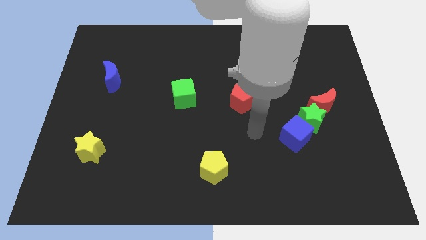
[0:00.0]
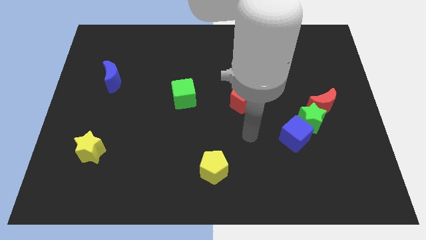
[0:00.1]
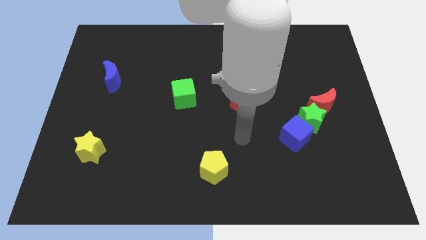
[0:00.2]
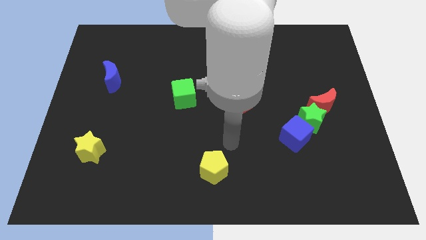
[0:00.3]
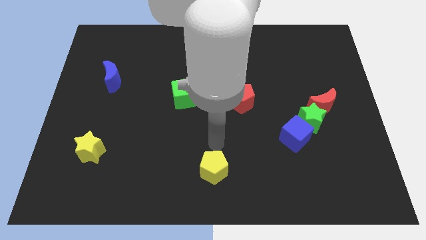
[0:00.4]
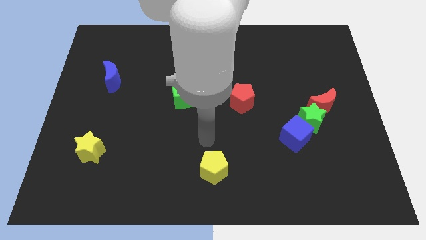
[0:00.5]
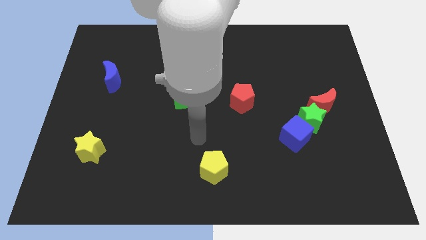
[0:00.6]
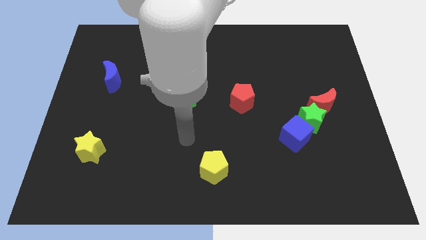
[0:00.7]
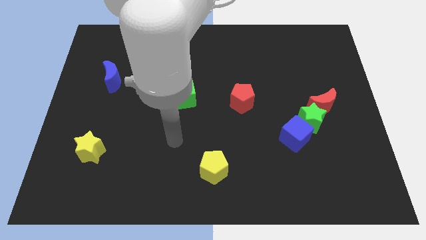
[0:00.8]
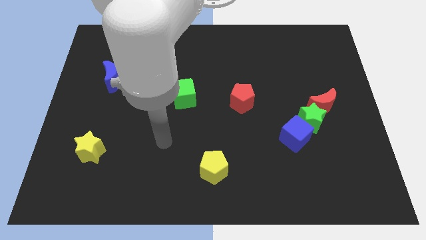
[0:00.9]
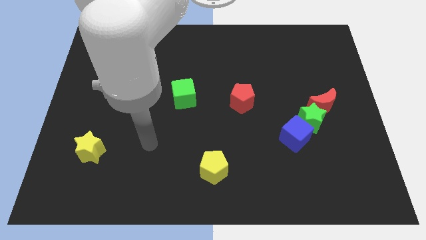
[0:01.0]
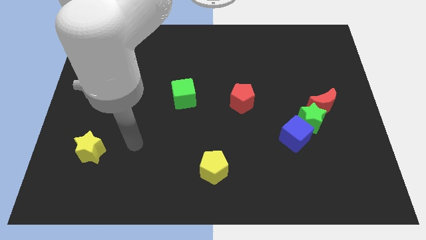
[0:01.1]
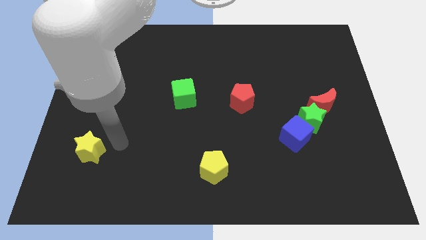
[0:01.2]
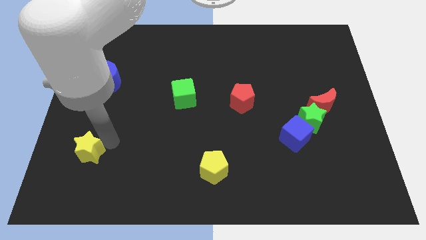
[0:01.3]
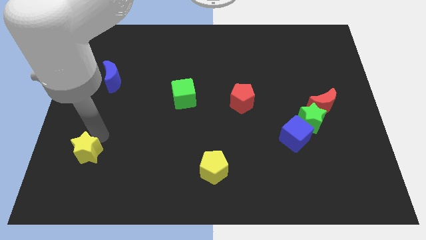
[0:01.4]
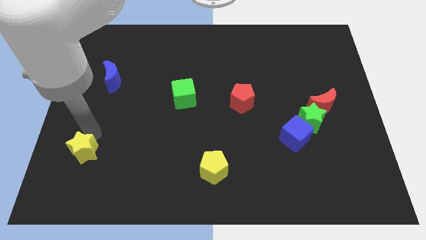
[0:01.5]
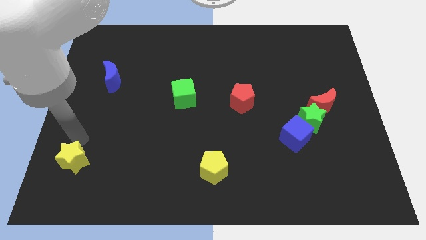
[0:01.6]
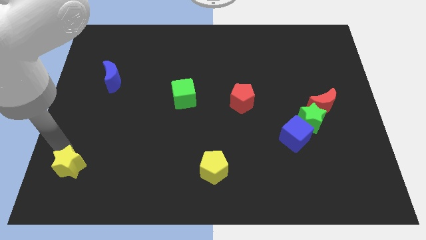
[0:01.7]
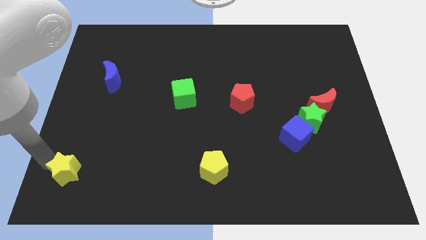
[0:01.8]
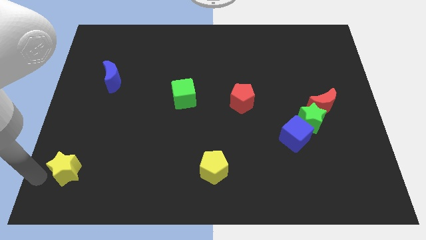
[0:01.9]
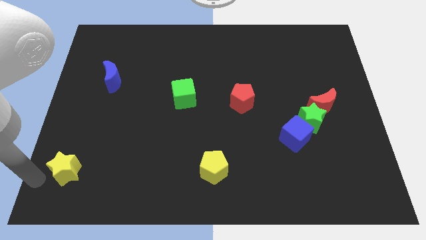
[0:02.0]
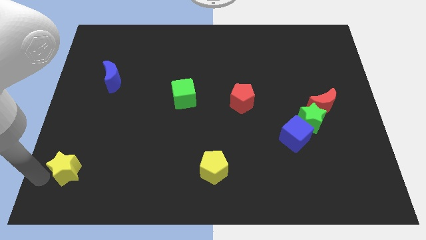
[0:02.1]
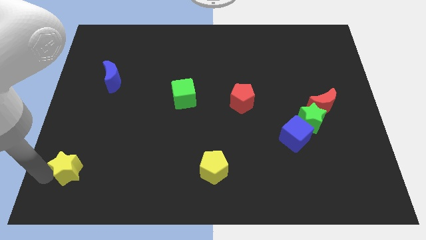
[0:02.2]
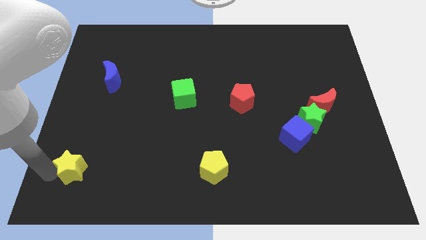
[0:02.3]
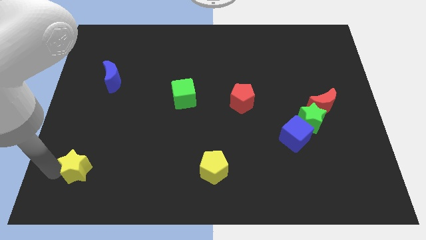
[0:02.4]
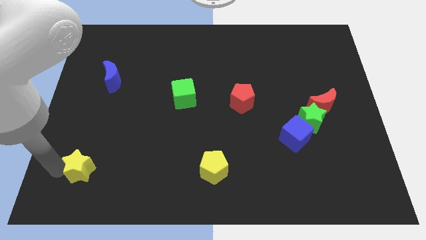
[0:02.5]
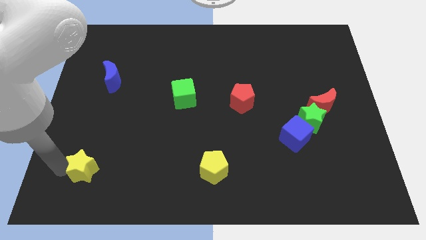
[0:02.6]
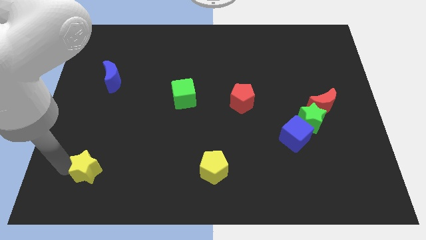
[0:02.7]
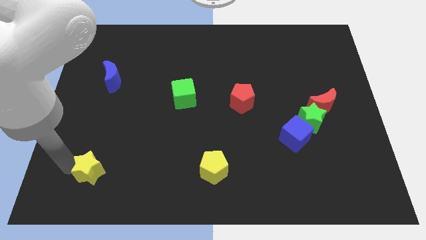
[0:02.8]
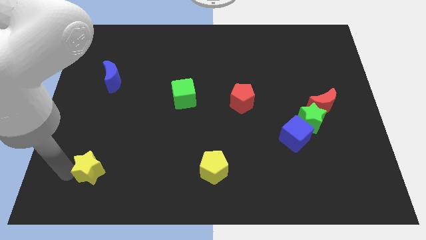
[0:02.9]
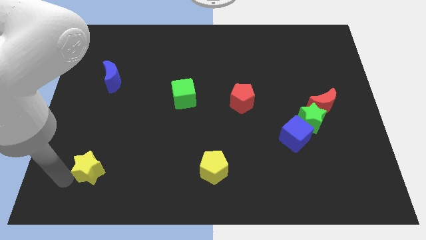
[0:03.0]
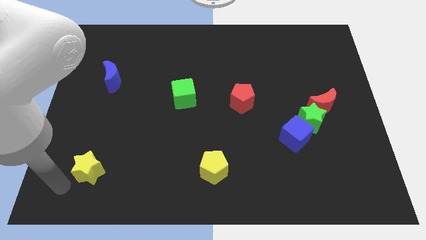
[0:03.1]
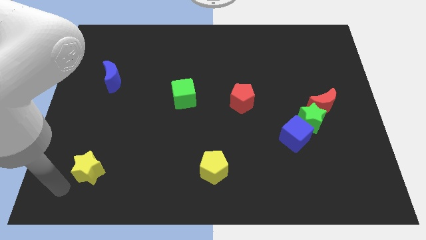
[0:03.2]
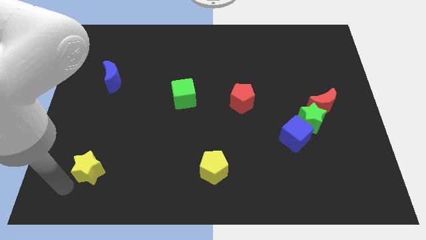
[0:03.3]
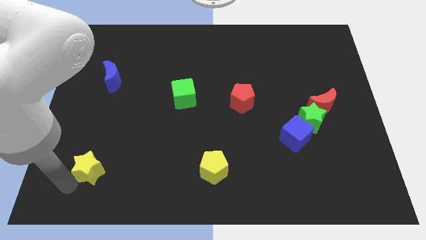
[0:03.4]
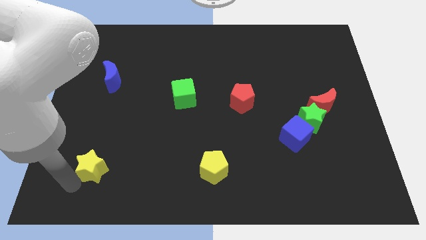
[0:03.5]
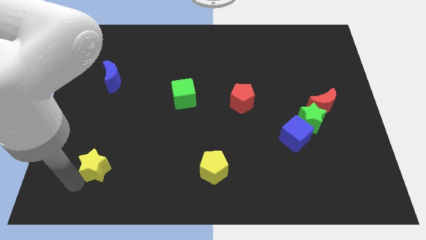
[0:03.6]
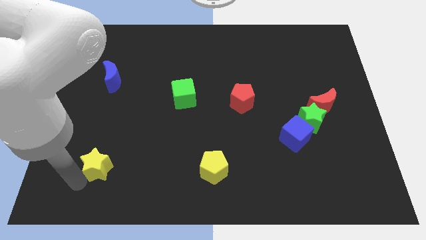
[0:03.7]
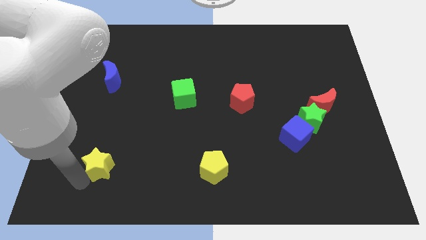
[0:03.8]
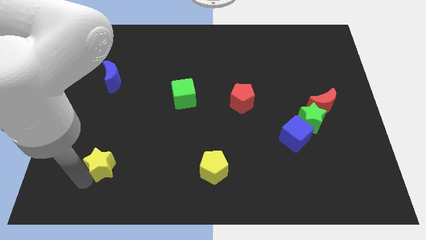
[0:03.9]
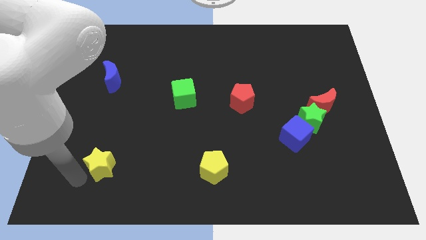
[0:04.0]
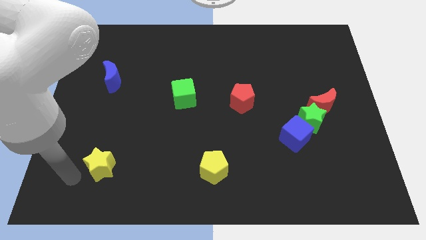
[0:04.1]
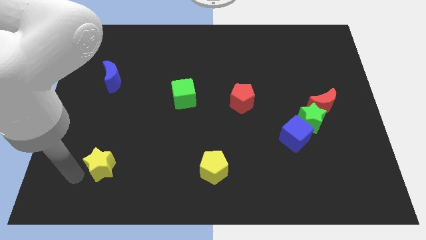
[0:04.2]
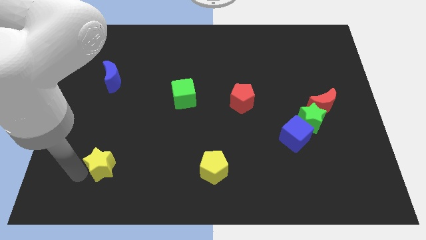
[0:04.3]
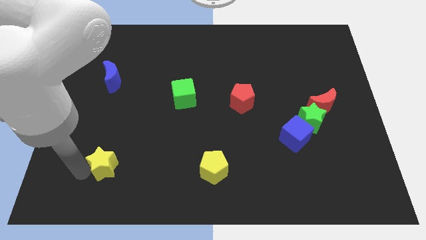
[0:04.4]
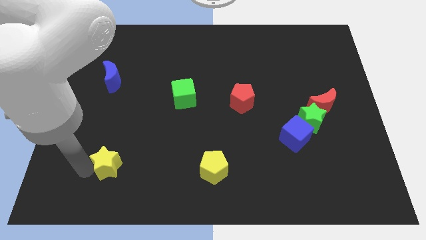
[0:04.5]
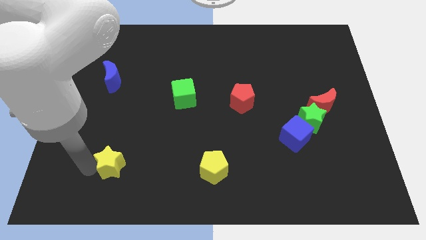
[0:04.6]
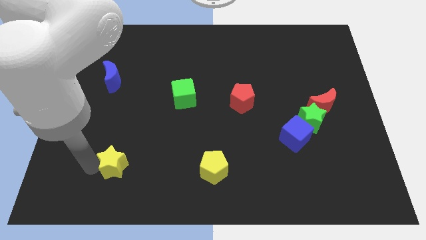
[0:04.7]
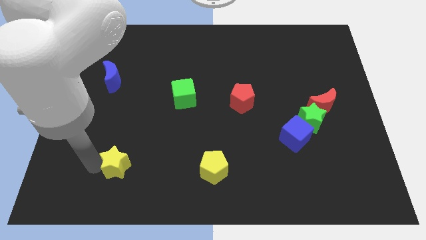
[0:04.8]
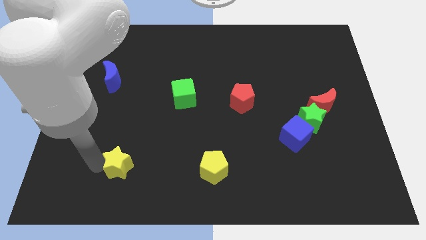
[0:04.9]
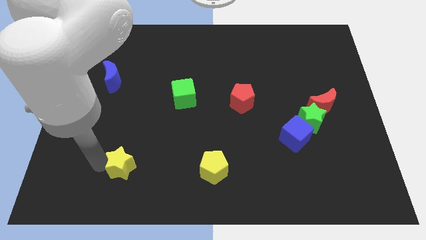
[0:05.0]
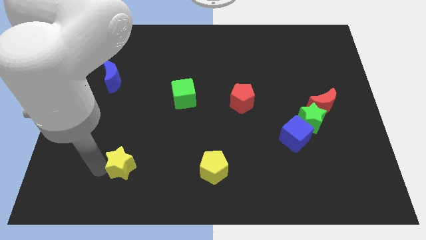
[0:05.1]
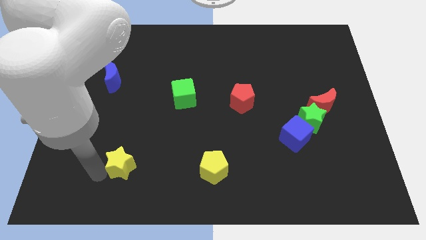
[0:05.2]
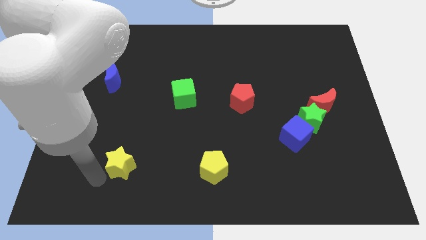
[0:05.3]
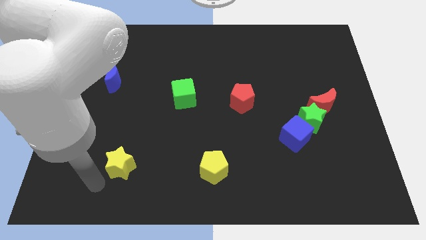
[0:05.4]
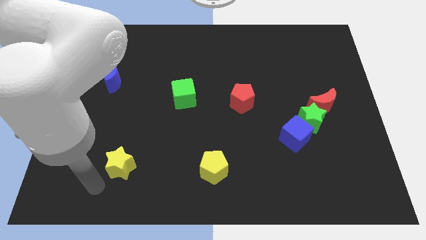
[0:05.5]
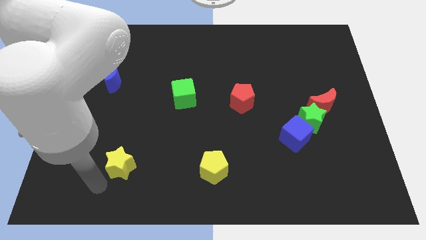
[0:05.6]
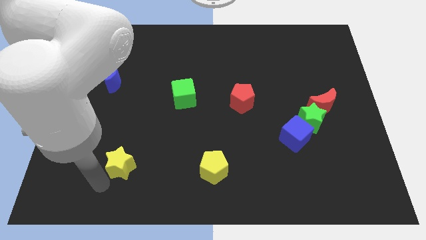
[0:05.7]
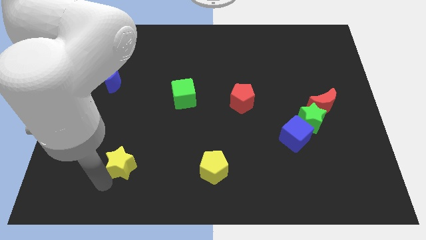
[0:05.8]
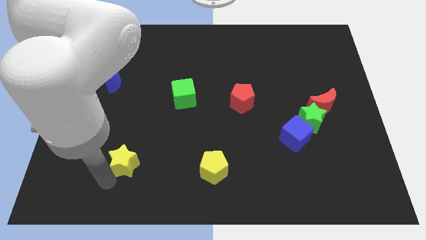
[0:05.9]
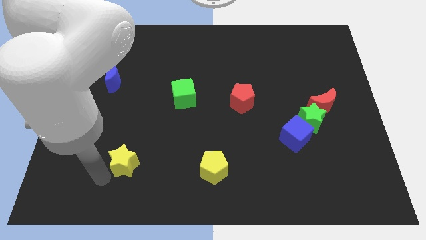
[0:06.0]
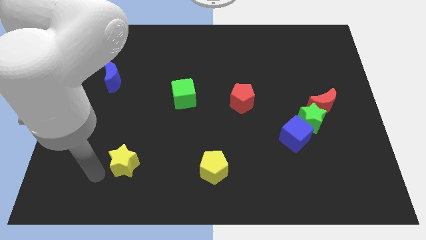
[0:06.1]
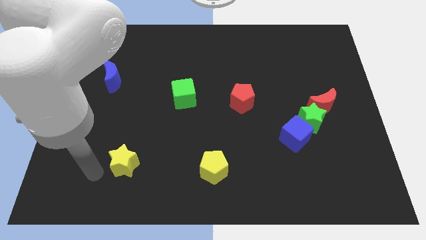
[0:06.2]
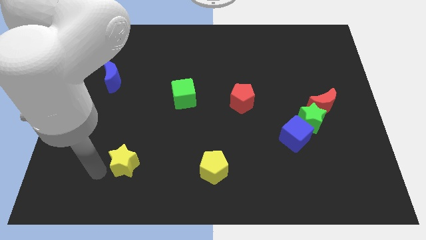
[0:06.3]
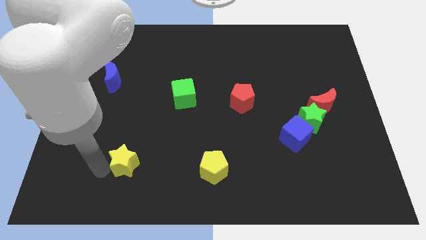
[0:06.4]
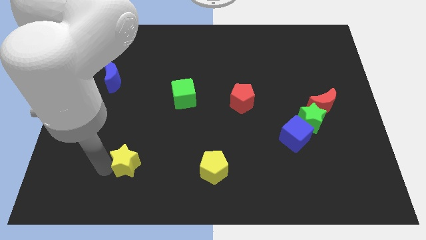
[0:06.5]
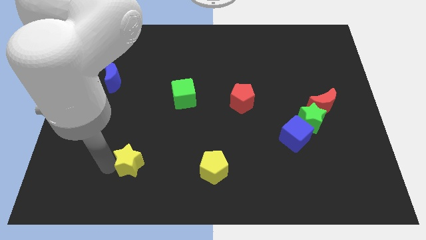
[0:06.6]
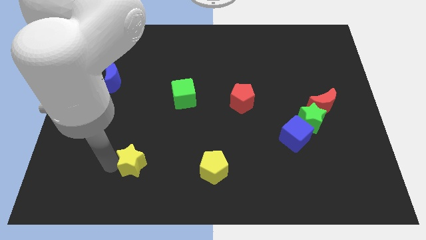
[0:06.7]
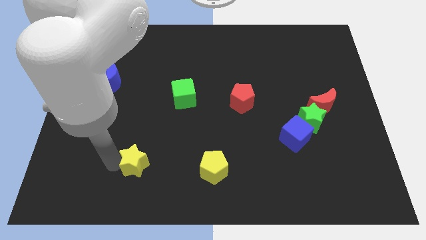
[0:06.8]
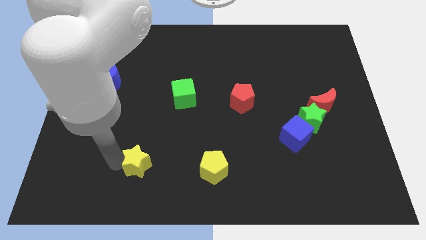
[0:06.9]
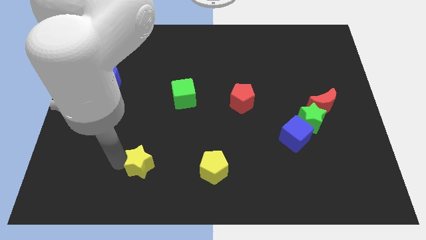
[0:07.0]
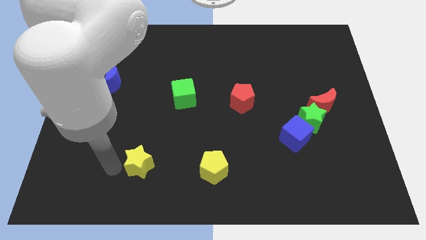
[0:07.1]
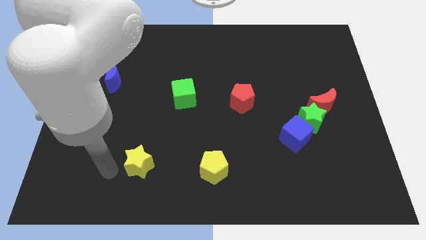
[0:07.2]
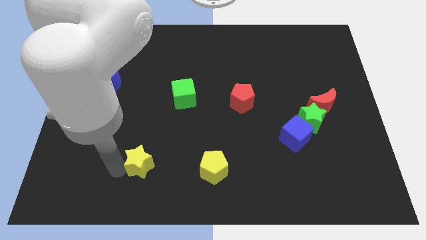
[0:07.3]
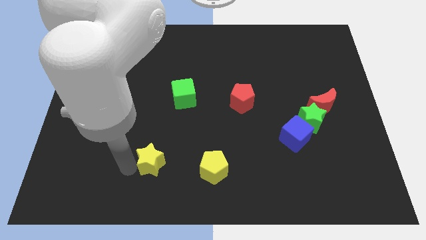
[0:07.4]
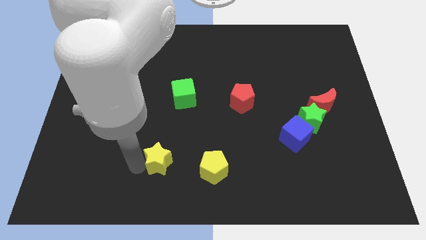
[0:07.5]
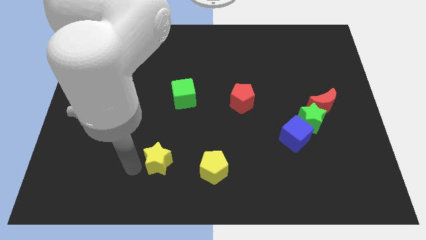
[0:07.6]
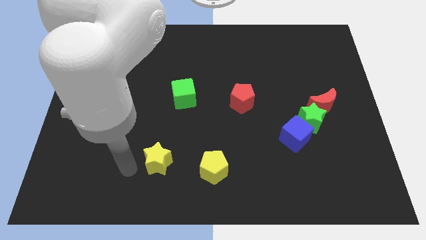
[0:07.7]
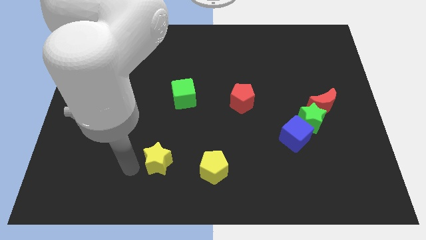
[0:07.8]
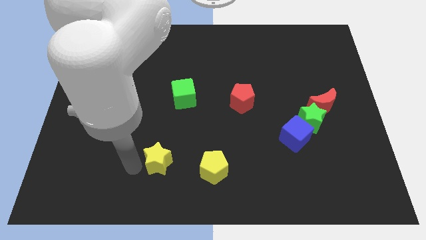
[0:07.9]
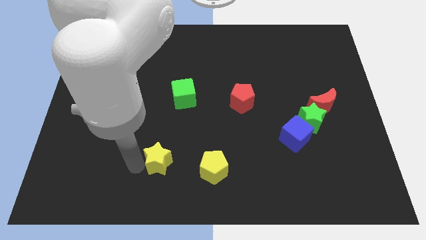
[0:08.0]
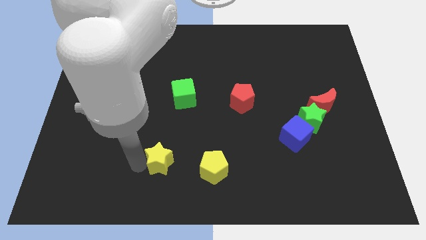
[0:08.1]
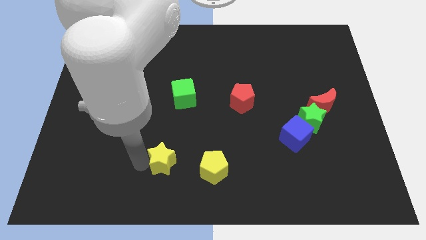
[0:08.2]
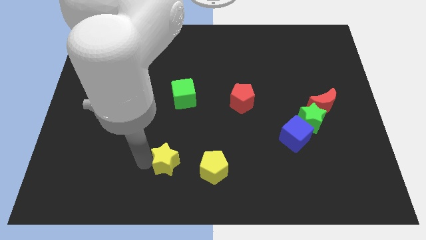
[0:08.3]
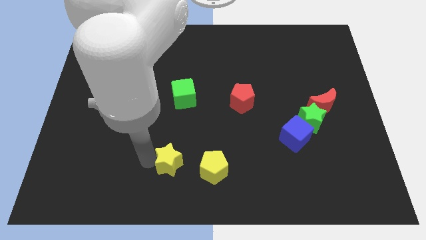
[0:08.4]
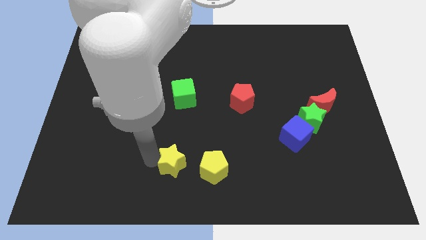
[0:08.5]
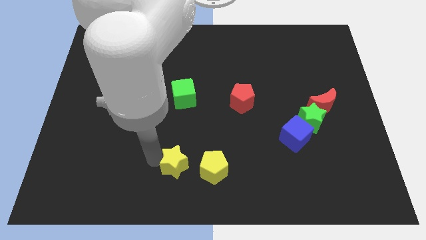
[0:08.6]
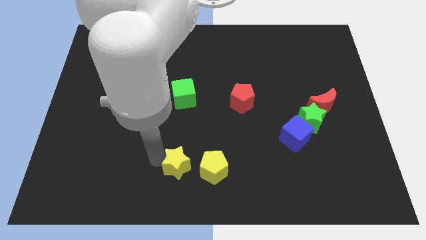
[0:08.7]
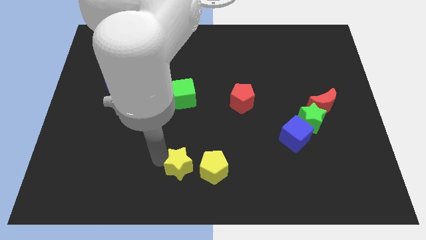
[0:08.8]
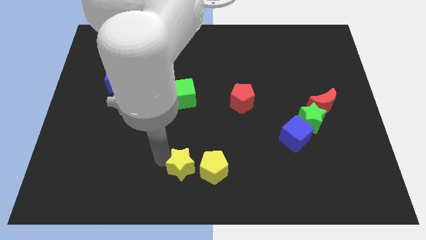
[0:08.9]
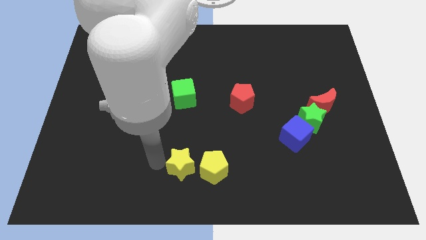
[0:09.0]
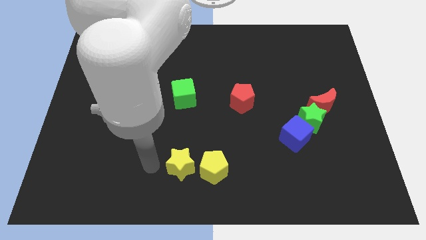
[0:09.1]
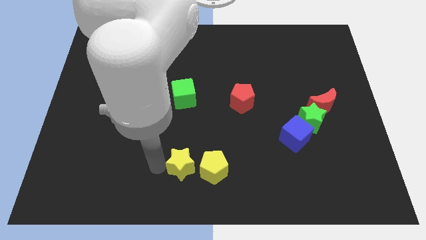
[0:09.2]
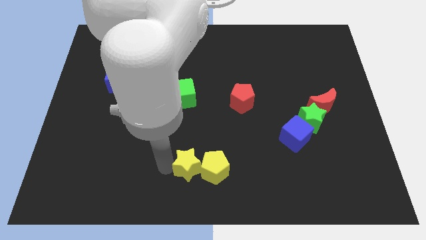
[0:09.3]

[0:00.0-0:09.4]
put the yellow star next to the yellow pentagon
